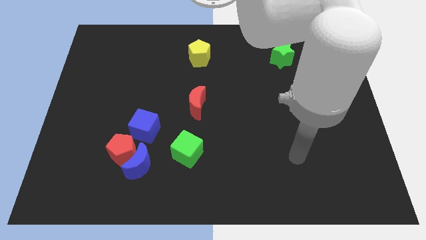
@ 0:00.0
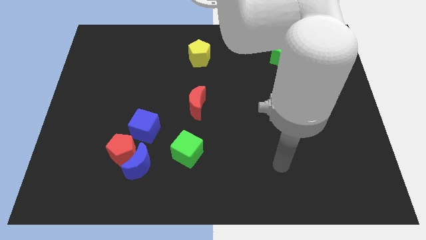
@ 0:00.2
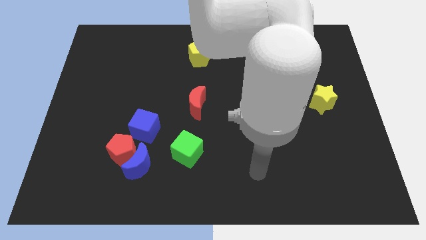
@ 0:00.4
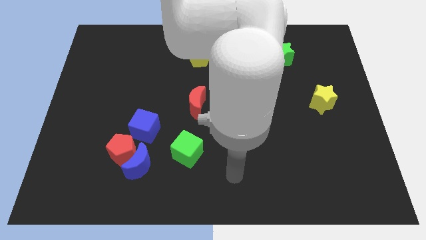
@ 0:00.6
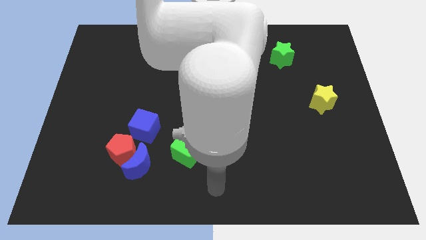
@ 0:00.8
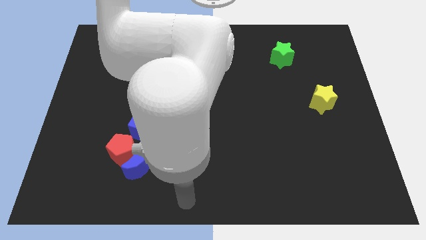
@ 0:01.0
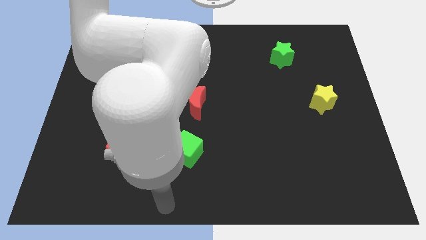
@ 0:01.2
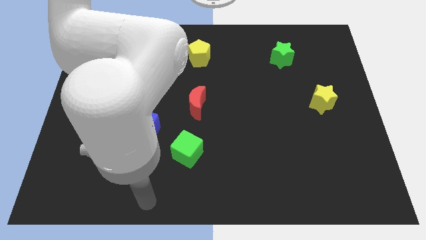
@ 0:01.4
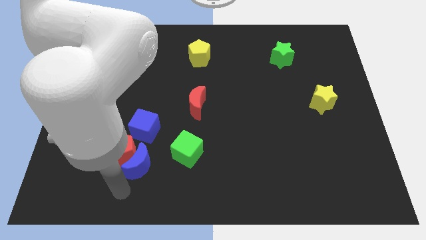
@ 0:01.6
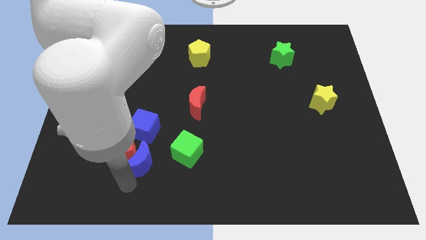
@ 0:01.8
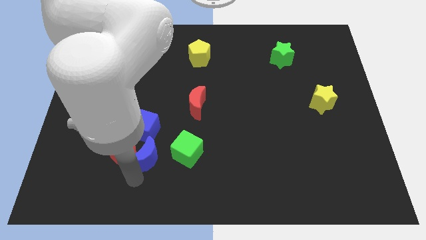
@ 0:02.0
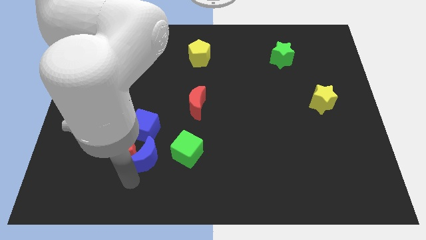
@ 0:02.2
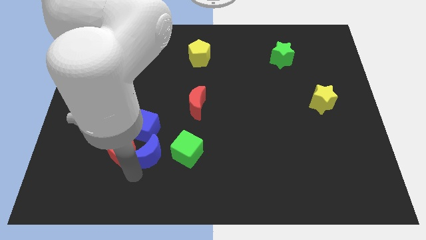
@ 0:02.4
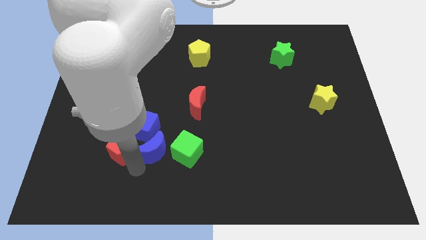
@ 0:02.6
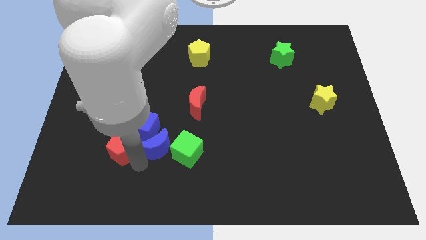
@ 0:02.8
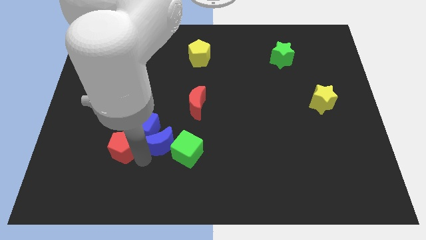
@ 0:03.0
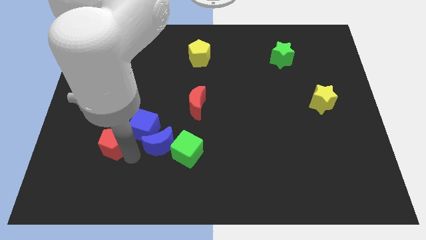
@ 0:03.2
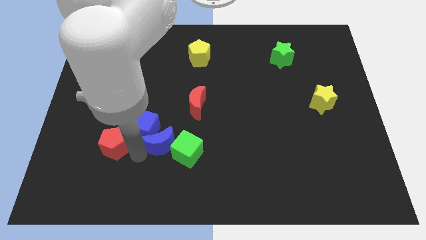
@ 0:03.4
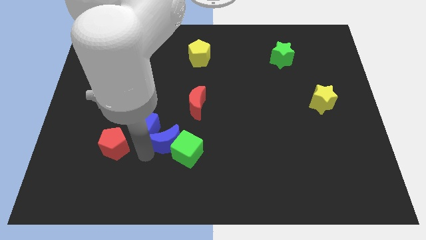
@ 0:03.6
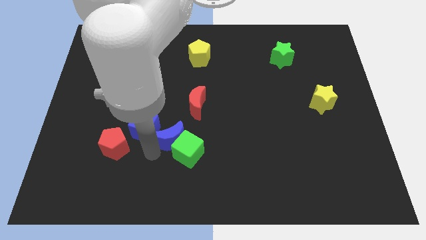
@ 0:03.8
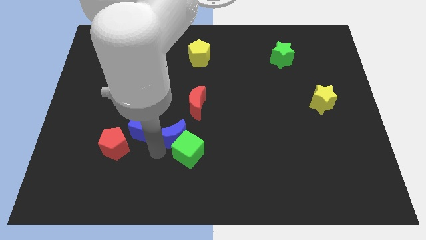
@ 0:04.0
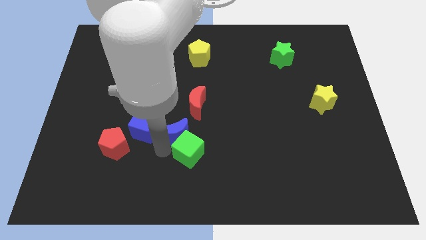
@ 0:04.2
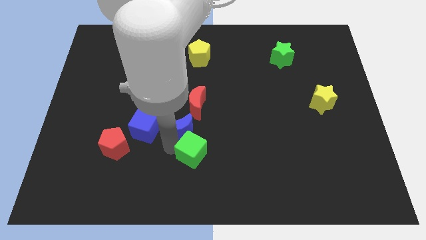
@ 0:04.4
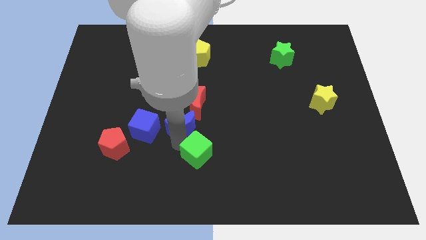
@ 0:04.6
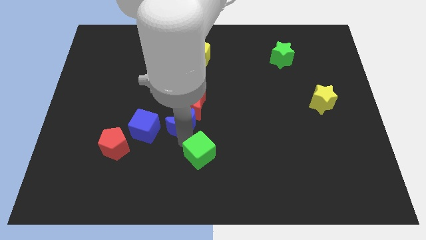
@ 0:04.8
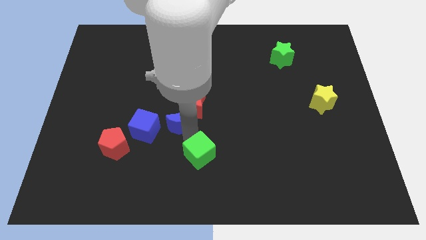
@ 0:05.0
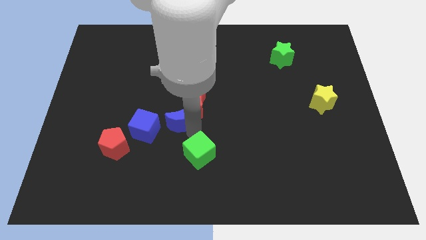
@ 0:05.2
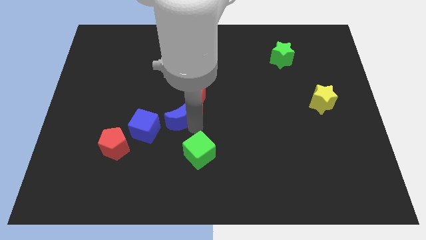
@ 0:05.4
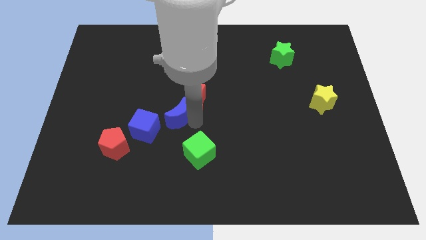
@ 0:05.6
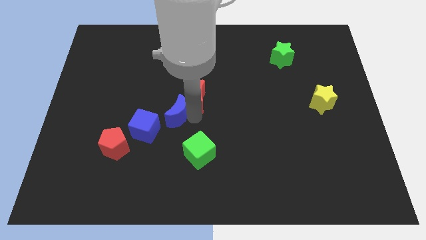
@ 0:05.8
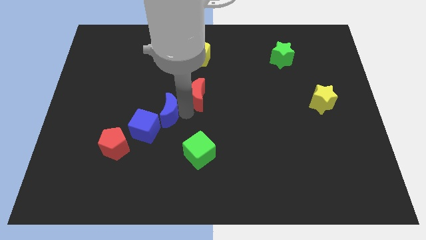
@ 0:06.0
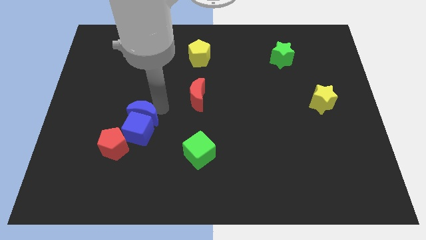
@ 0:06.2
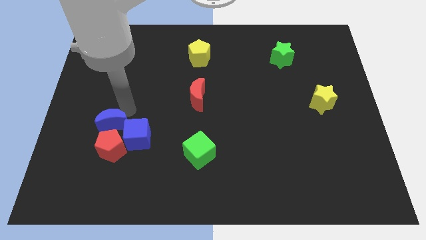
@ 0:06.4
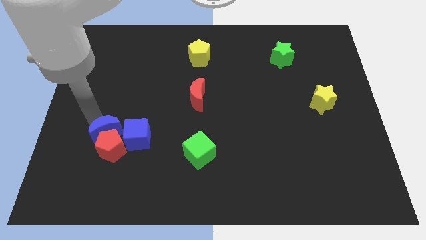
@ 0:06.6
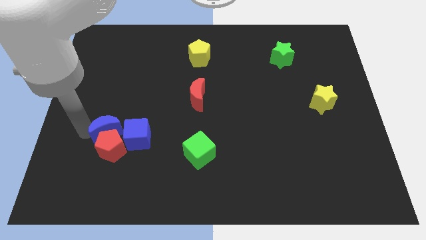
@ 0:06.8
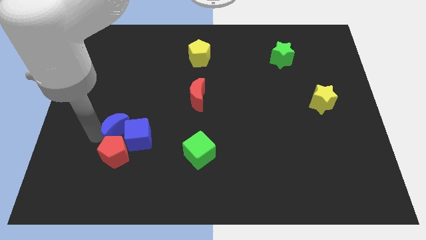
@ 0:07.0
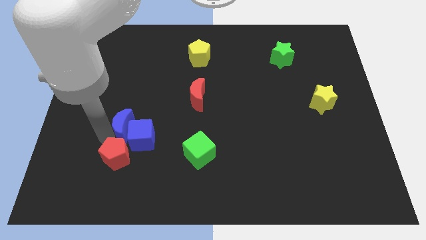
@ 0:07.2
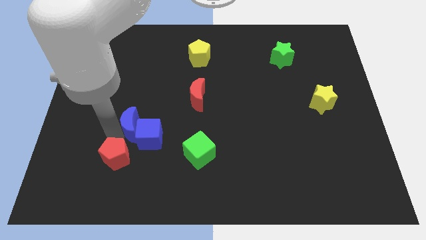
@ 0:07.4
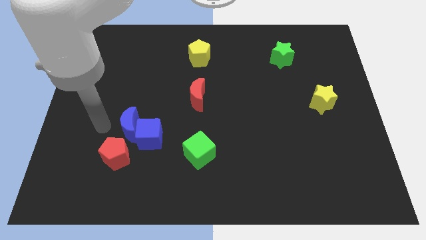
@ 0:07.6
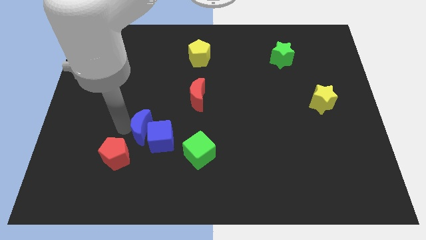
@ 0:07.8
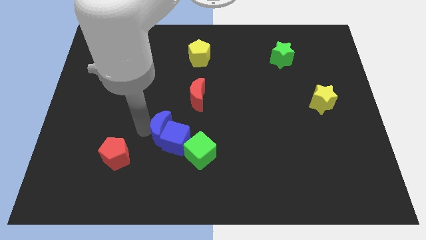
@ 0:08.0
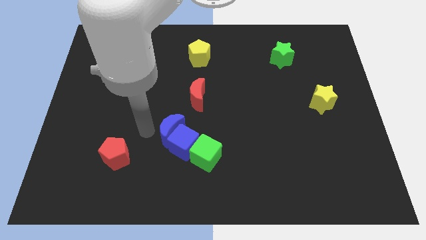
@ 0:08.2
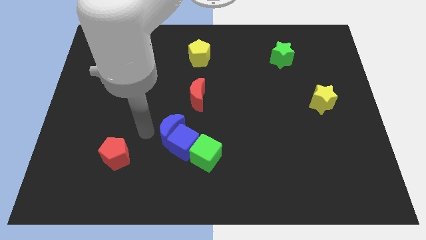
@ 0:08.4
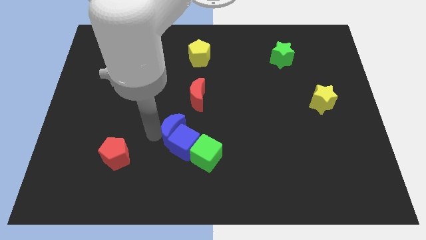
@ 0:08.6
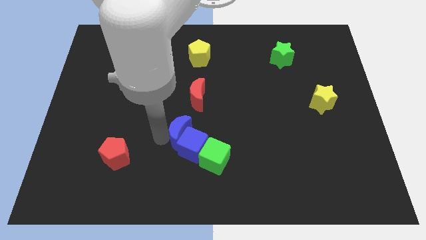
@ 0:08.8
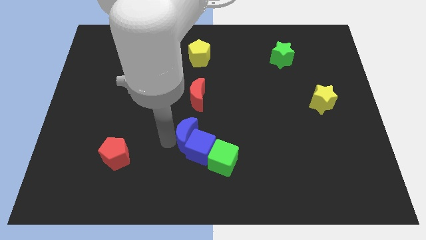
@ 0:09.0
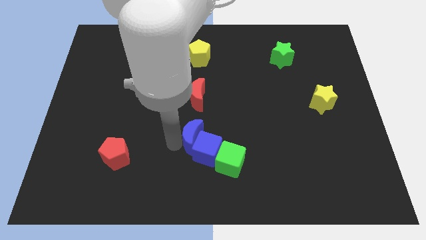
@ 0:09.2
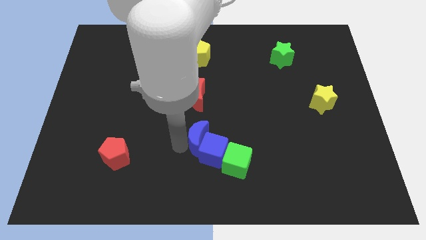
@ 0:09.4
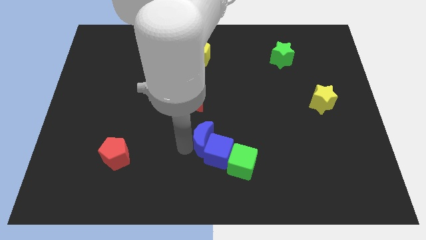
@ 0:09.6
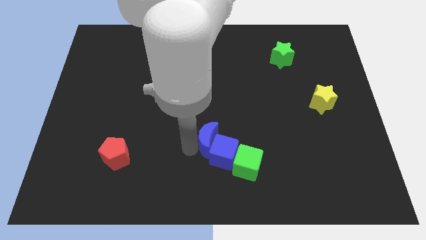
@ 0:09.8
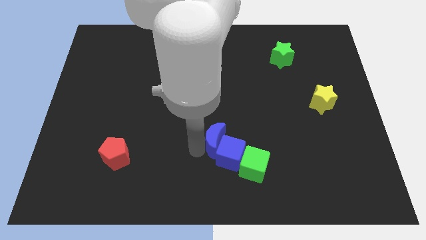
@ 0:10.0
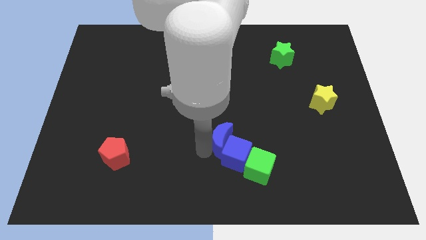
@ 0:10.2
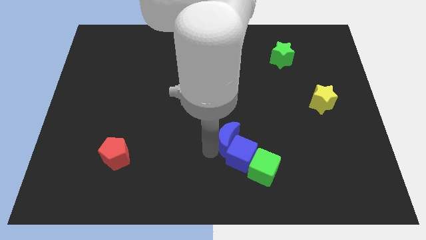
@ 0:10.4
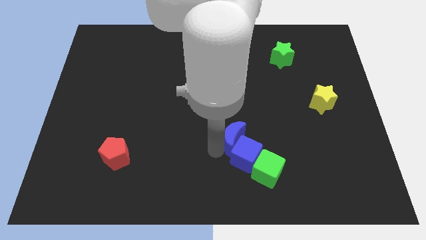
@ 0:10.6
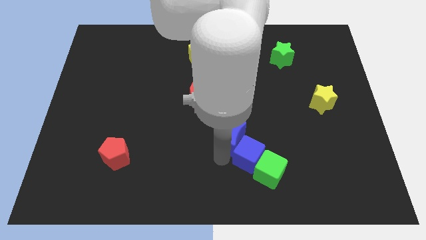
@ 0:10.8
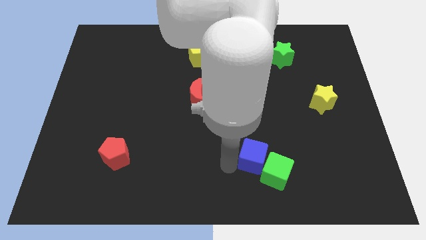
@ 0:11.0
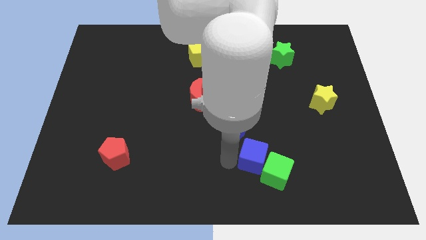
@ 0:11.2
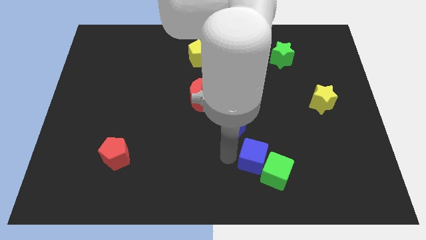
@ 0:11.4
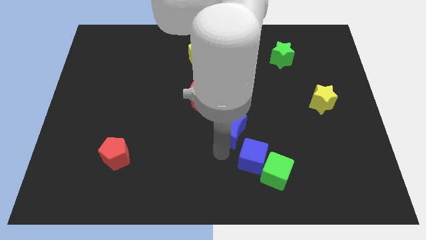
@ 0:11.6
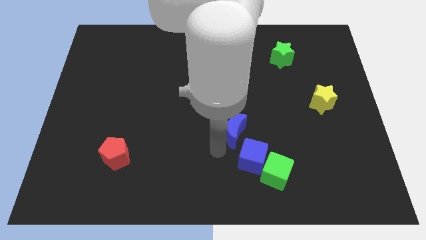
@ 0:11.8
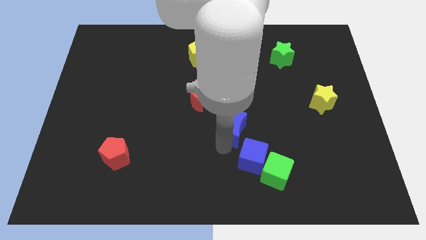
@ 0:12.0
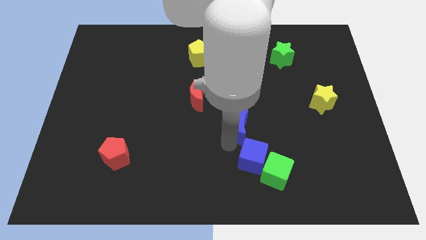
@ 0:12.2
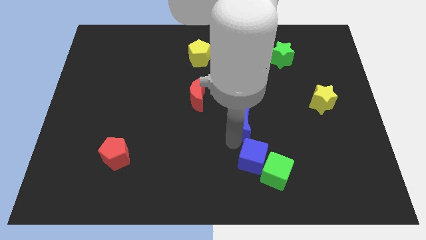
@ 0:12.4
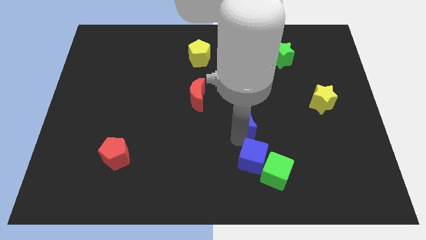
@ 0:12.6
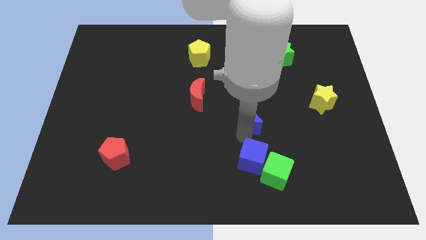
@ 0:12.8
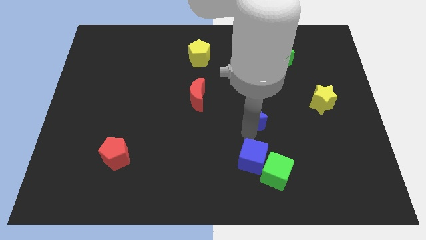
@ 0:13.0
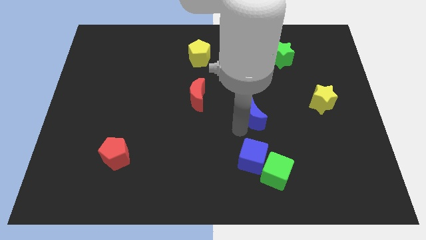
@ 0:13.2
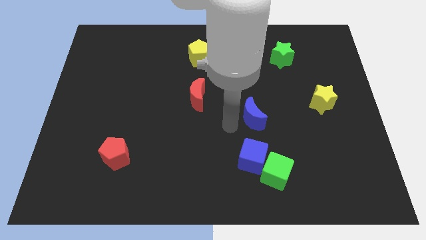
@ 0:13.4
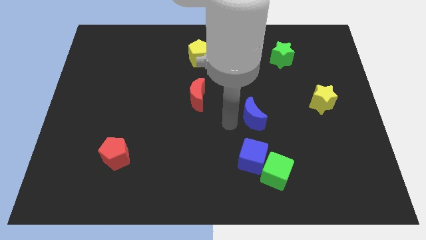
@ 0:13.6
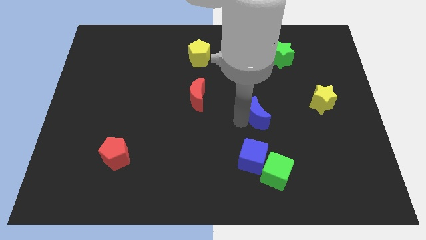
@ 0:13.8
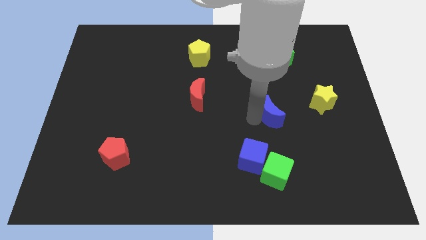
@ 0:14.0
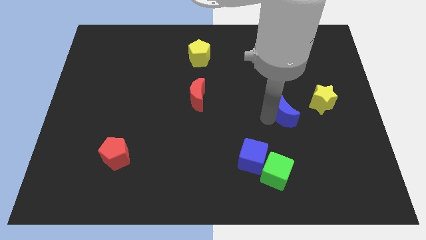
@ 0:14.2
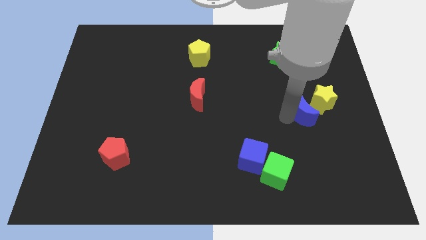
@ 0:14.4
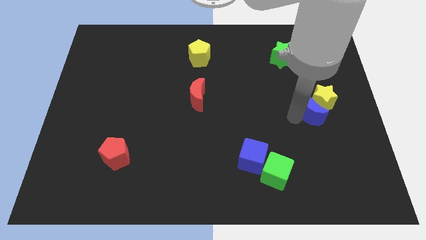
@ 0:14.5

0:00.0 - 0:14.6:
push the blue moon close to the yellow star
